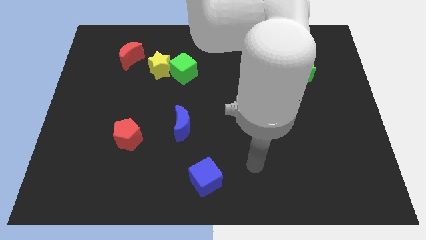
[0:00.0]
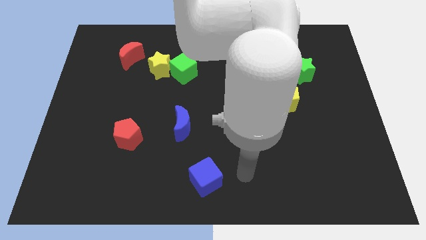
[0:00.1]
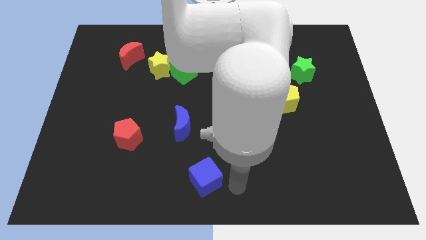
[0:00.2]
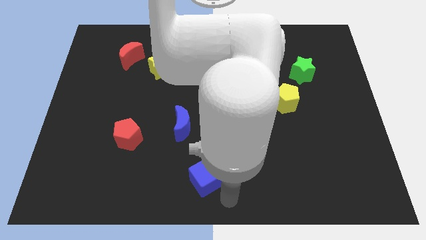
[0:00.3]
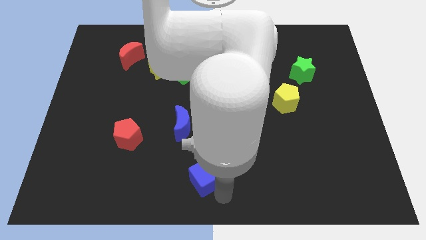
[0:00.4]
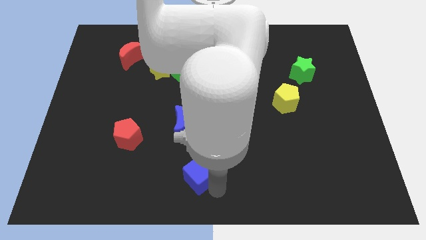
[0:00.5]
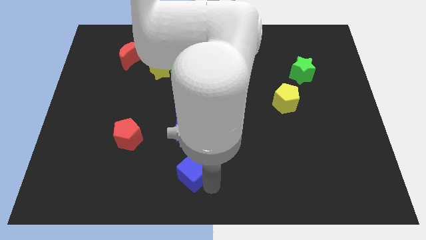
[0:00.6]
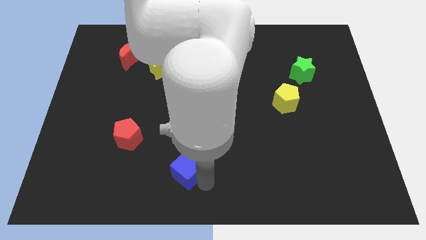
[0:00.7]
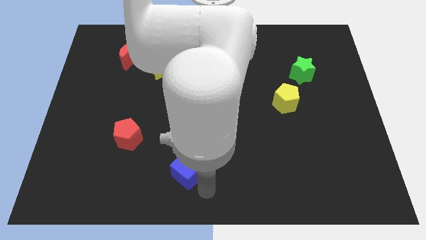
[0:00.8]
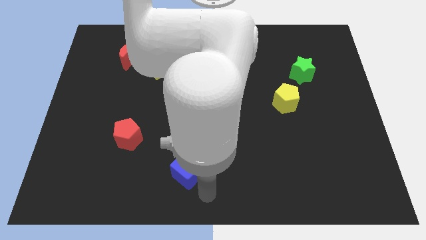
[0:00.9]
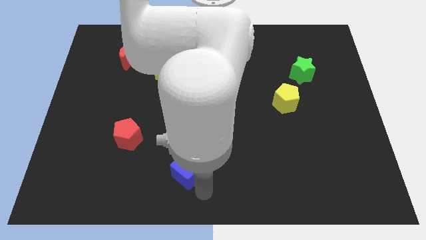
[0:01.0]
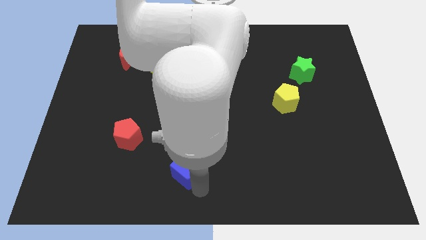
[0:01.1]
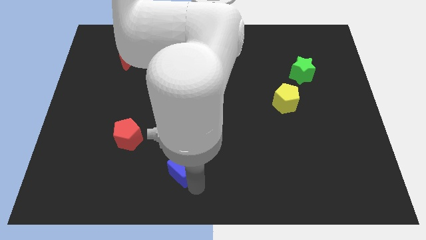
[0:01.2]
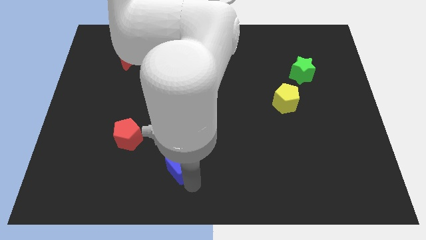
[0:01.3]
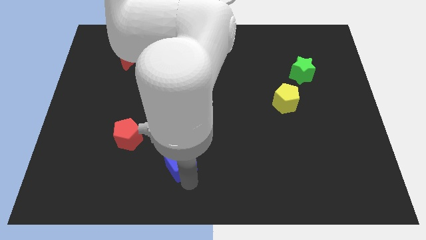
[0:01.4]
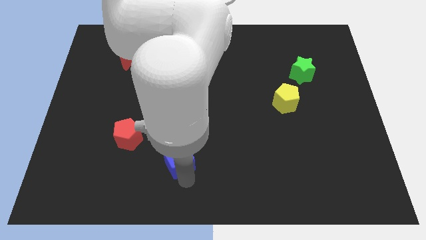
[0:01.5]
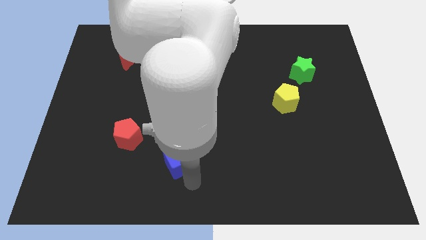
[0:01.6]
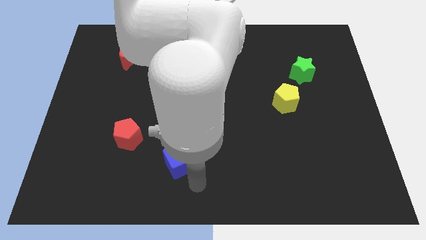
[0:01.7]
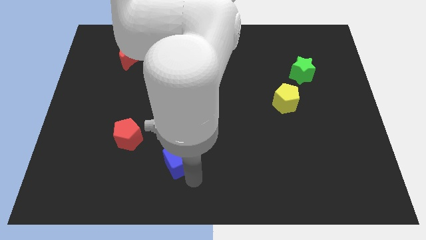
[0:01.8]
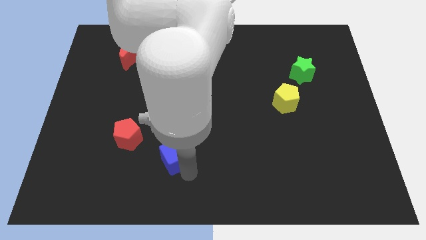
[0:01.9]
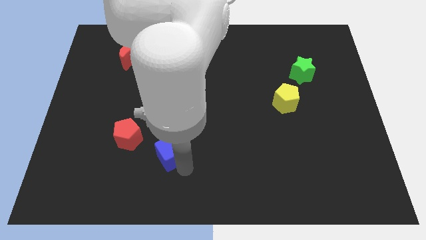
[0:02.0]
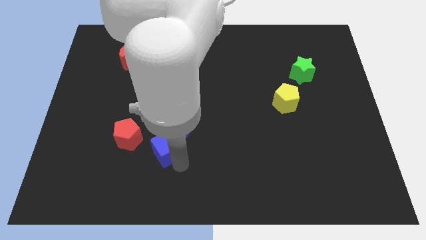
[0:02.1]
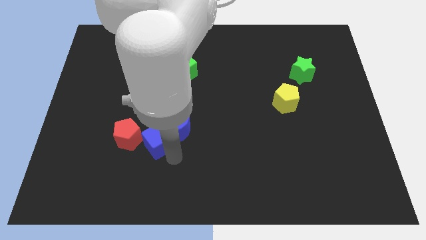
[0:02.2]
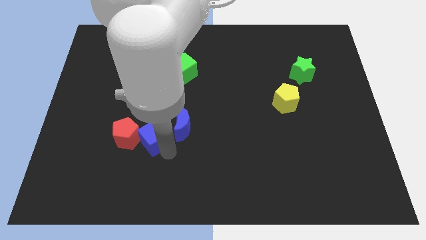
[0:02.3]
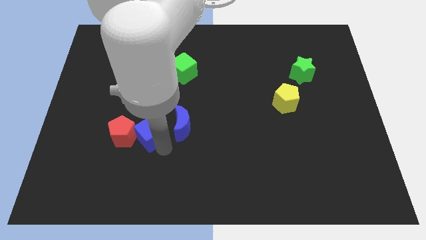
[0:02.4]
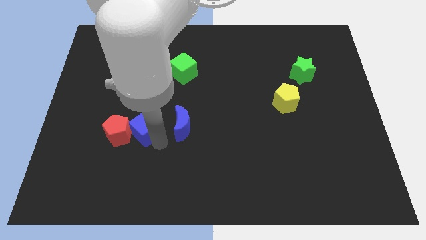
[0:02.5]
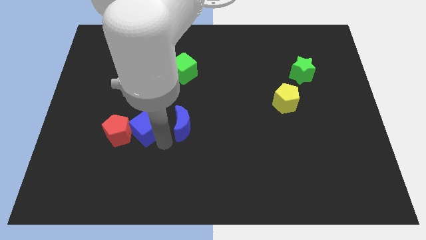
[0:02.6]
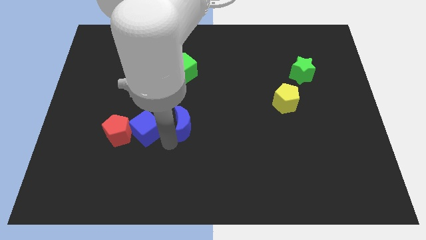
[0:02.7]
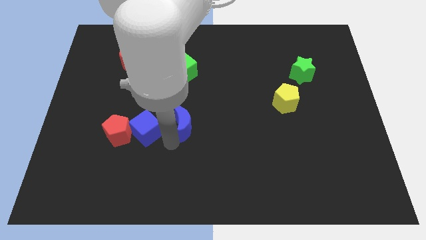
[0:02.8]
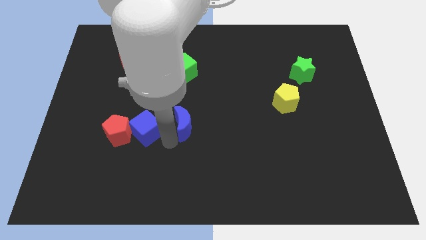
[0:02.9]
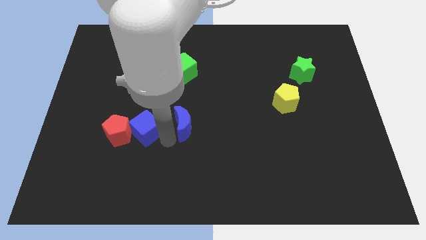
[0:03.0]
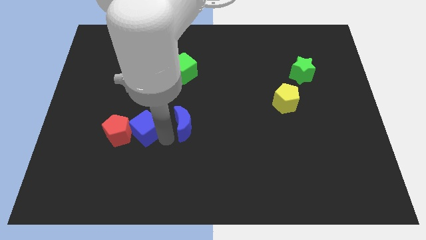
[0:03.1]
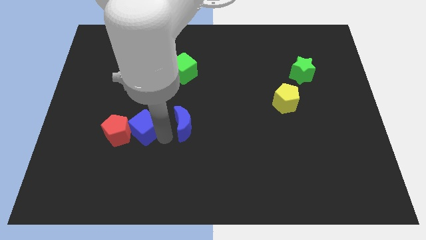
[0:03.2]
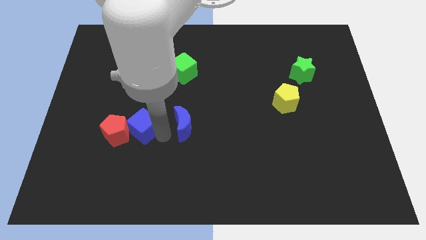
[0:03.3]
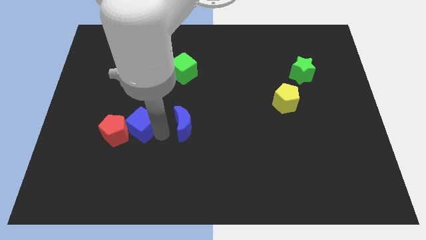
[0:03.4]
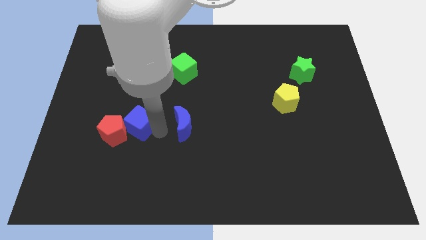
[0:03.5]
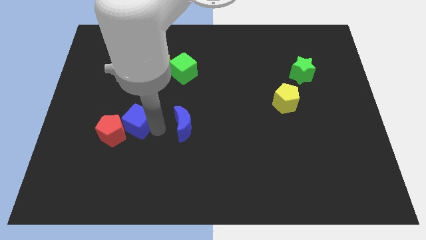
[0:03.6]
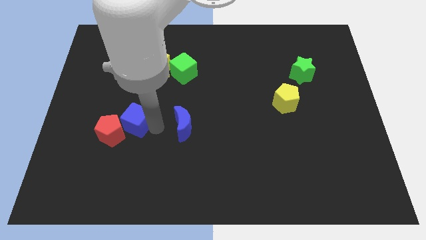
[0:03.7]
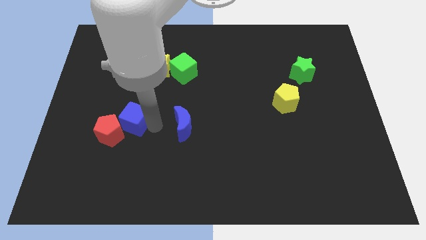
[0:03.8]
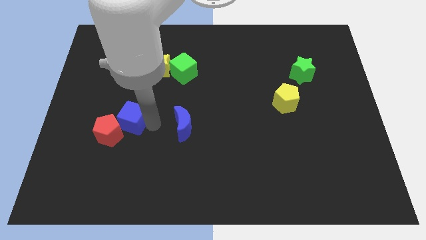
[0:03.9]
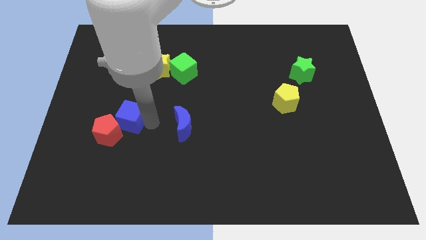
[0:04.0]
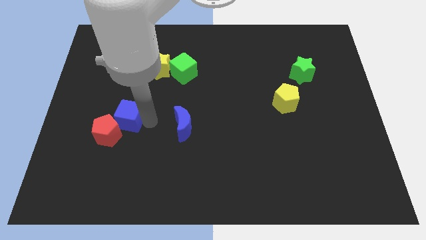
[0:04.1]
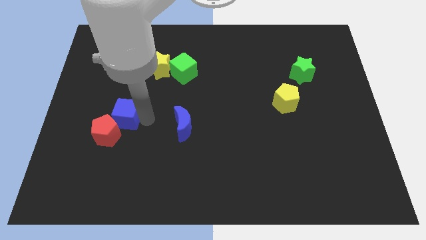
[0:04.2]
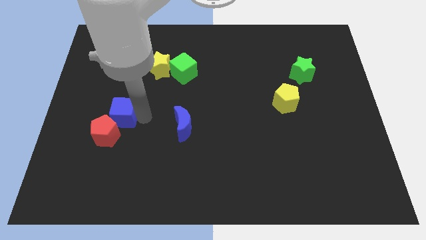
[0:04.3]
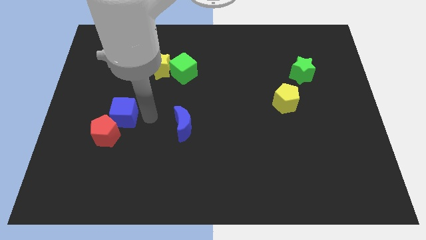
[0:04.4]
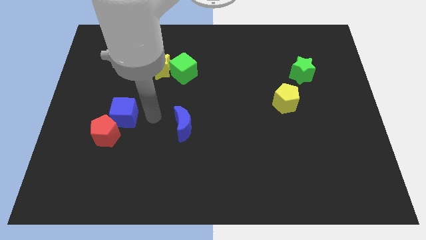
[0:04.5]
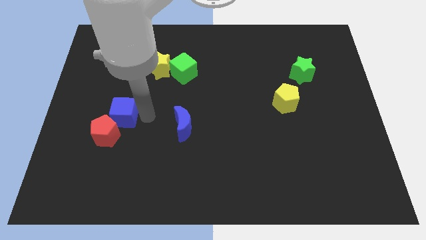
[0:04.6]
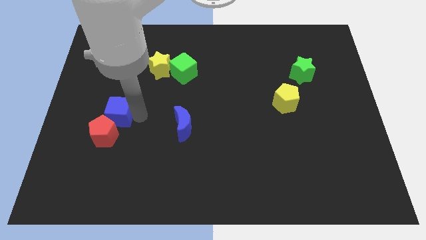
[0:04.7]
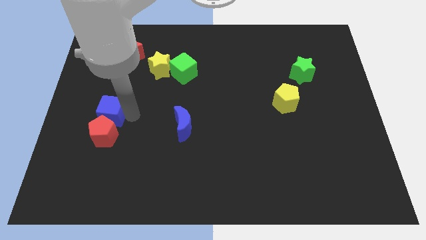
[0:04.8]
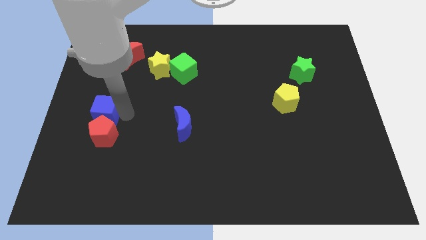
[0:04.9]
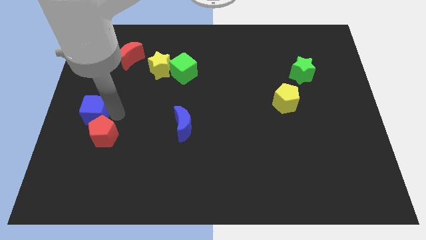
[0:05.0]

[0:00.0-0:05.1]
push the blue cube to the left side
